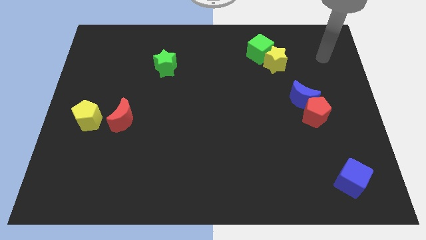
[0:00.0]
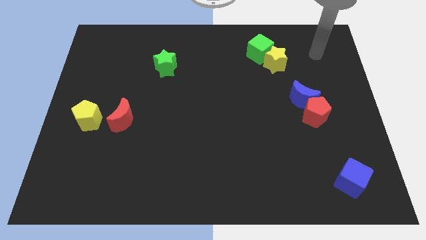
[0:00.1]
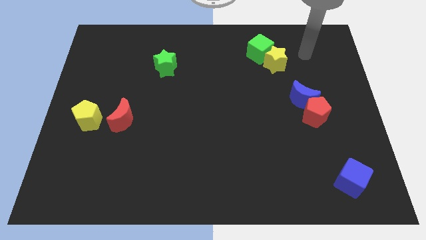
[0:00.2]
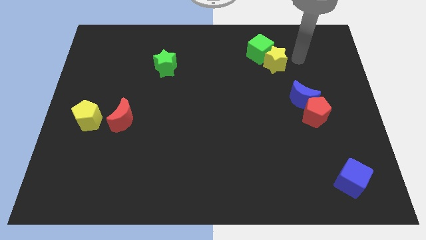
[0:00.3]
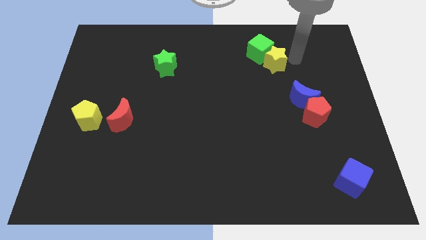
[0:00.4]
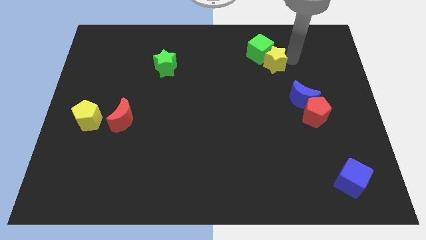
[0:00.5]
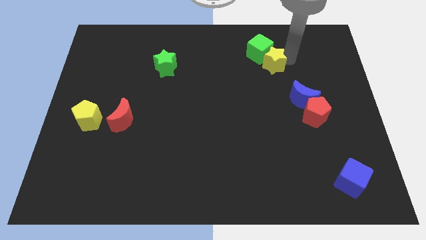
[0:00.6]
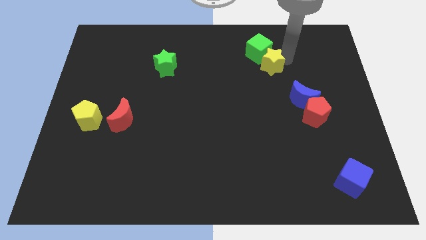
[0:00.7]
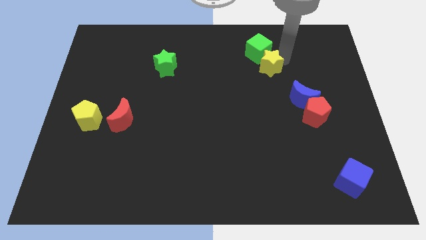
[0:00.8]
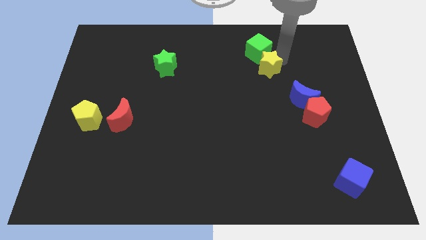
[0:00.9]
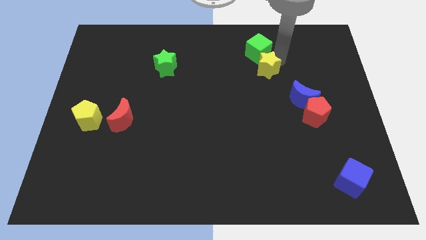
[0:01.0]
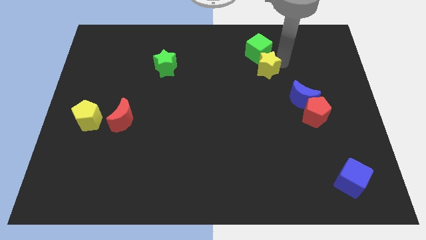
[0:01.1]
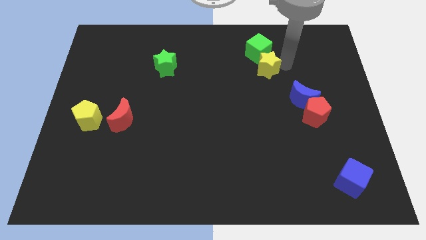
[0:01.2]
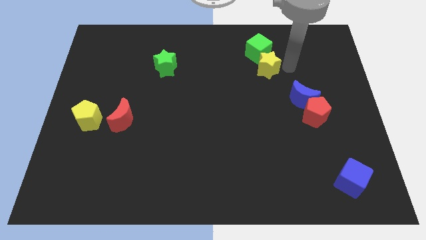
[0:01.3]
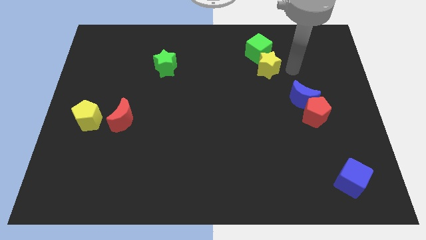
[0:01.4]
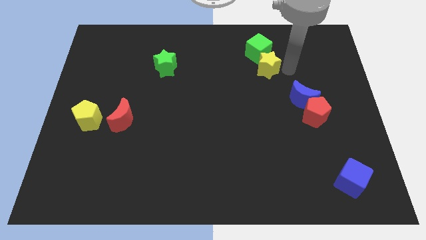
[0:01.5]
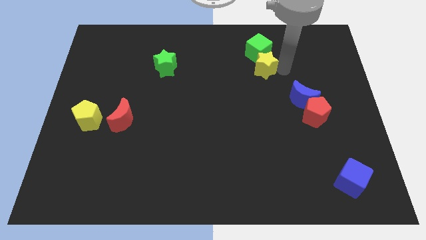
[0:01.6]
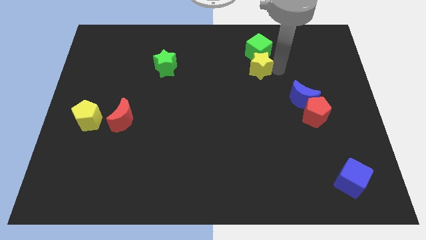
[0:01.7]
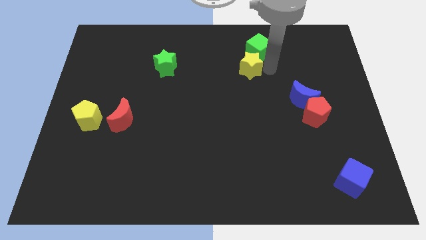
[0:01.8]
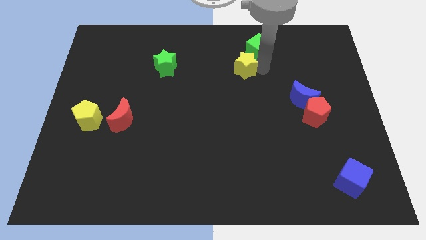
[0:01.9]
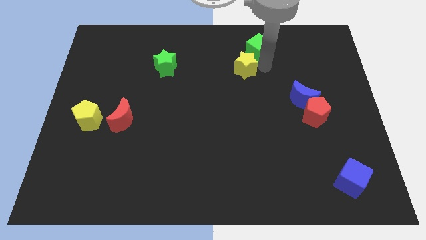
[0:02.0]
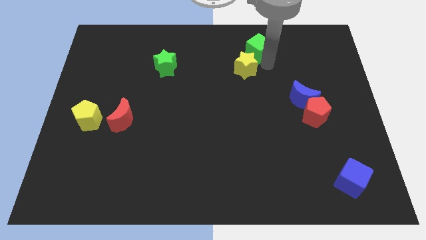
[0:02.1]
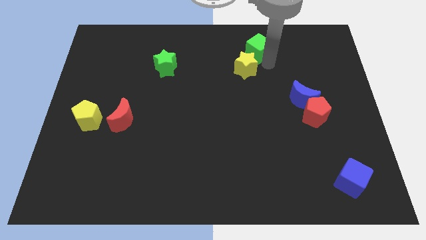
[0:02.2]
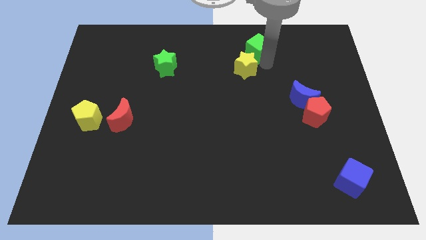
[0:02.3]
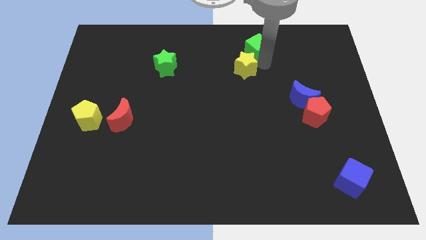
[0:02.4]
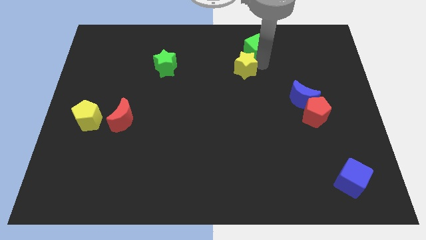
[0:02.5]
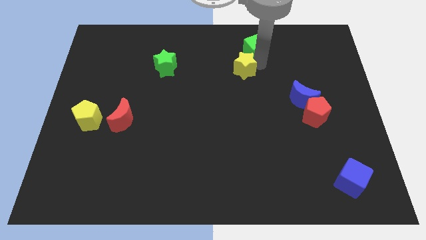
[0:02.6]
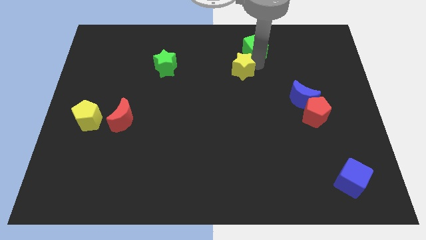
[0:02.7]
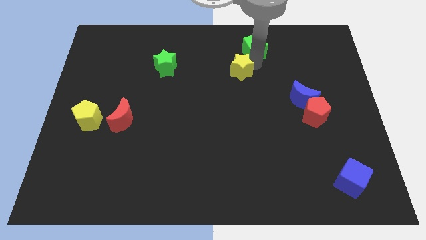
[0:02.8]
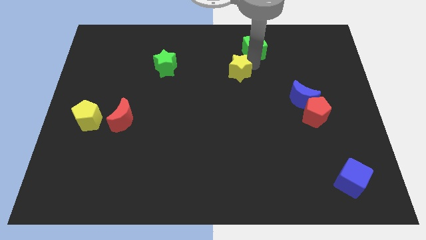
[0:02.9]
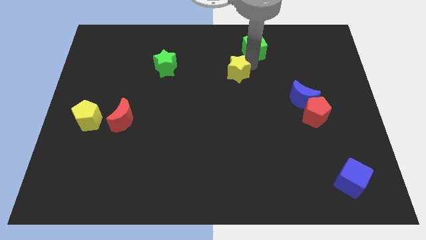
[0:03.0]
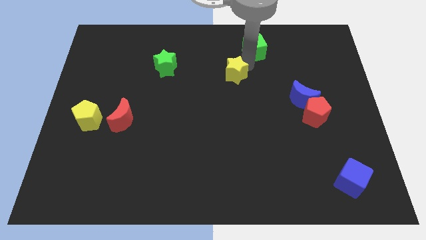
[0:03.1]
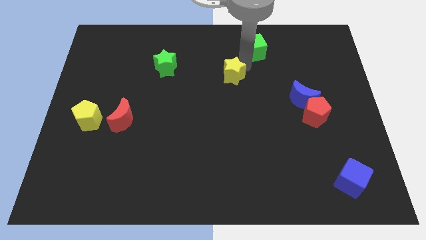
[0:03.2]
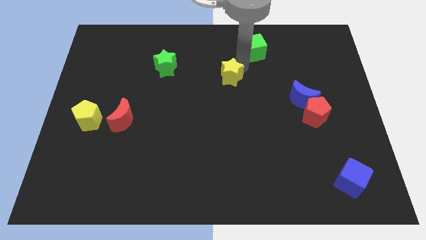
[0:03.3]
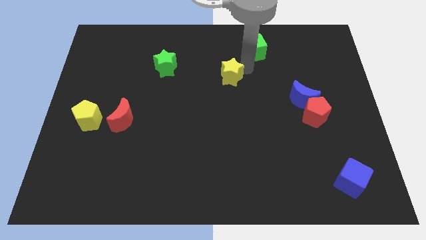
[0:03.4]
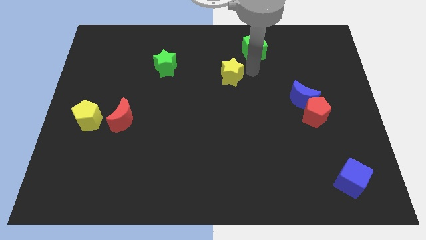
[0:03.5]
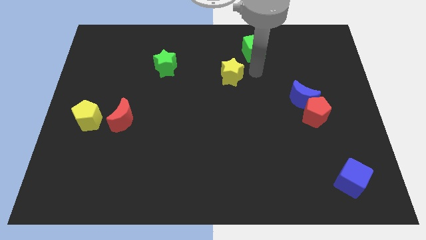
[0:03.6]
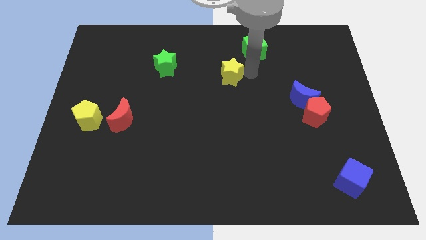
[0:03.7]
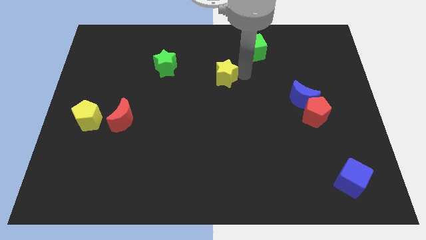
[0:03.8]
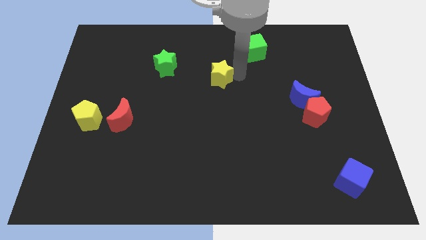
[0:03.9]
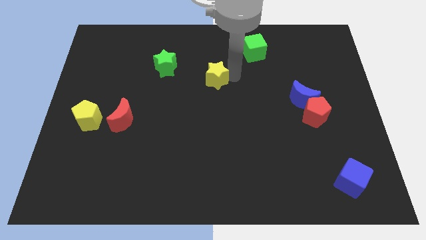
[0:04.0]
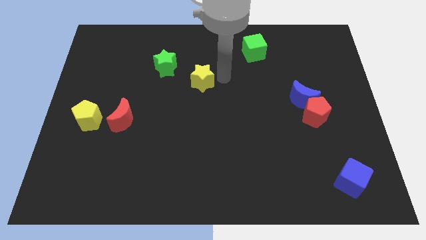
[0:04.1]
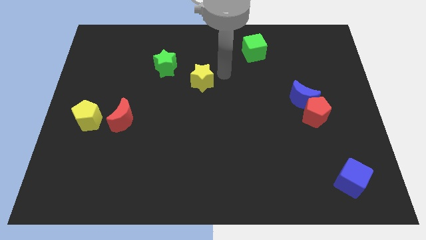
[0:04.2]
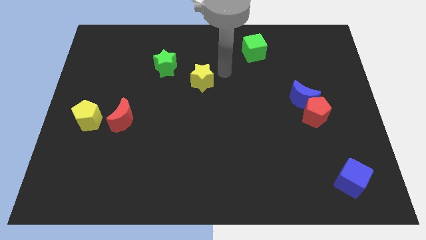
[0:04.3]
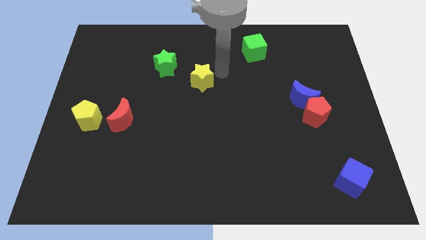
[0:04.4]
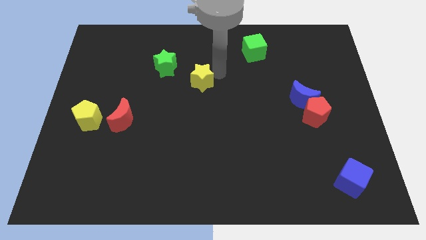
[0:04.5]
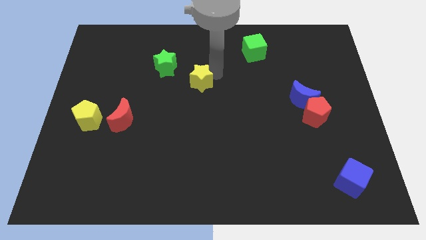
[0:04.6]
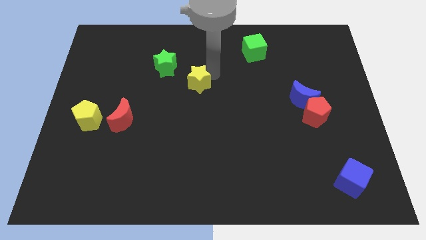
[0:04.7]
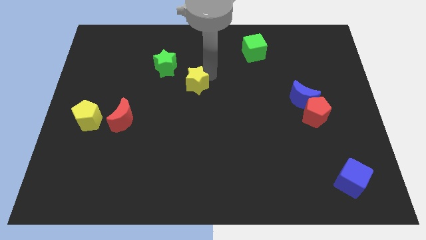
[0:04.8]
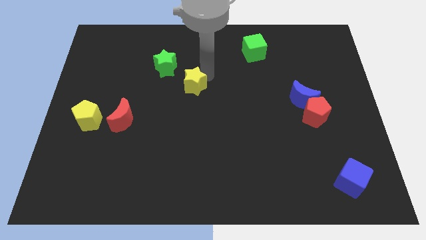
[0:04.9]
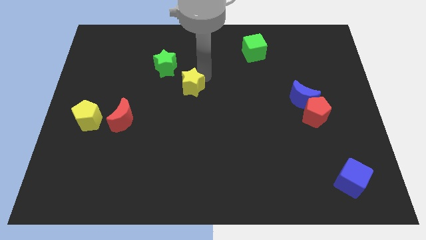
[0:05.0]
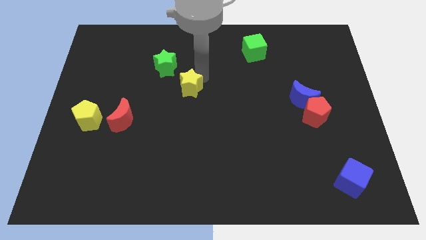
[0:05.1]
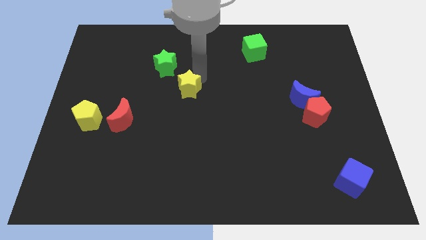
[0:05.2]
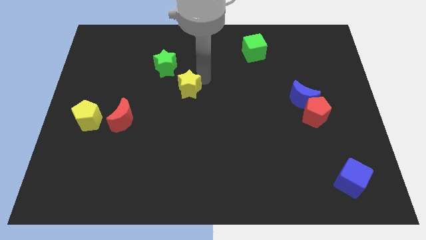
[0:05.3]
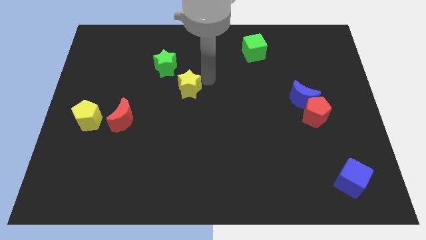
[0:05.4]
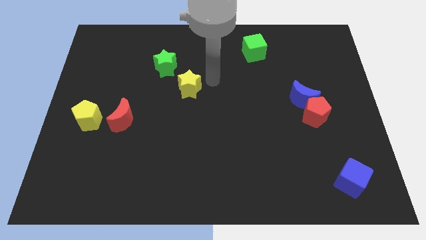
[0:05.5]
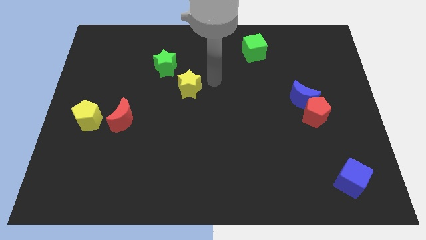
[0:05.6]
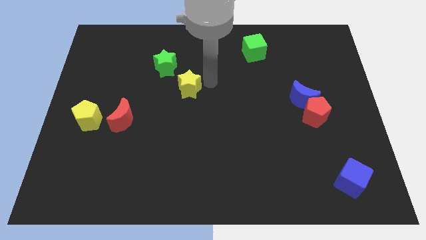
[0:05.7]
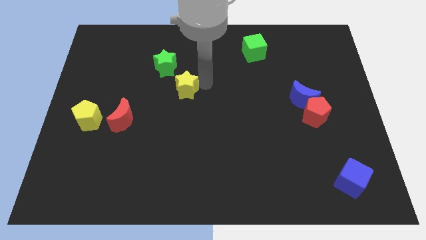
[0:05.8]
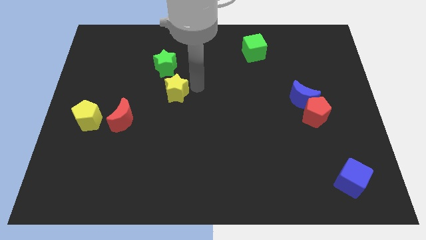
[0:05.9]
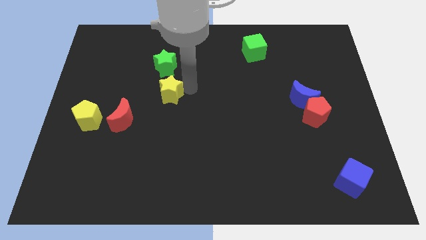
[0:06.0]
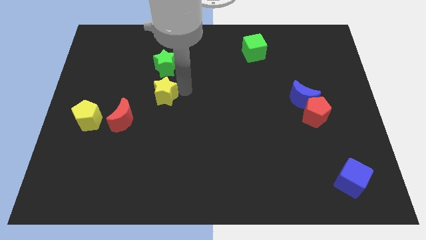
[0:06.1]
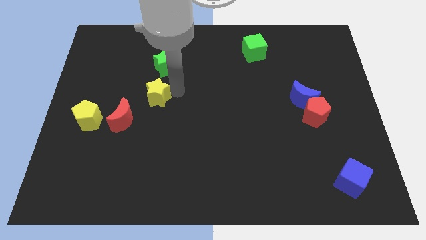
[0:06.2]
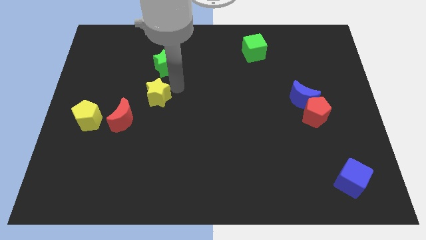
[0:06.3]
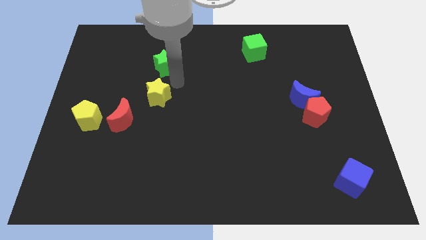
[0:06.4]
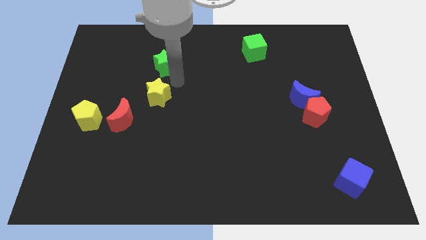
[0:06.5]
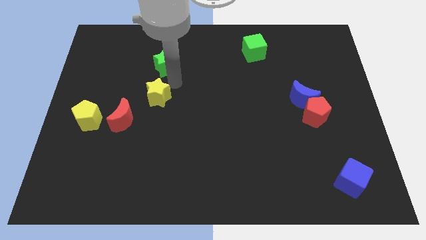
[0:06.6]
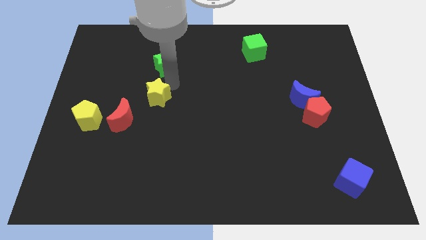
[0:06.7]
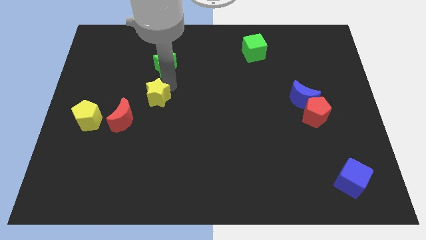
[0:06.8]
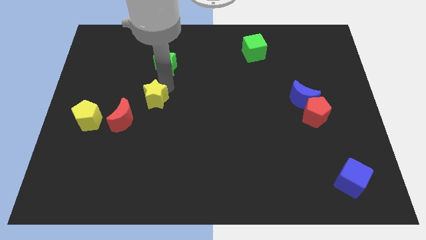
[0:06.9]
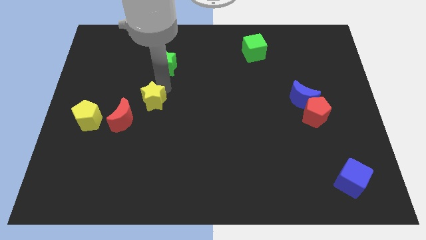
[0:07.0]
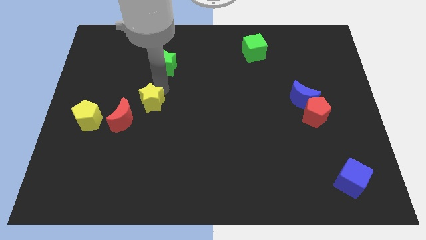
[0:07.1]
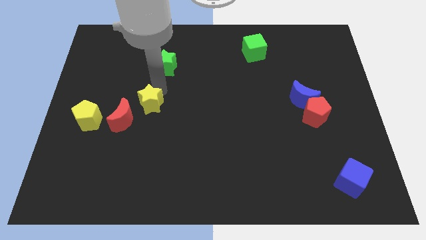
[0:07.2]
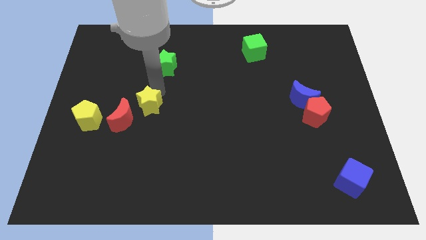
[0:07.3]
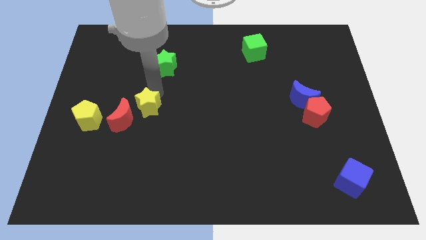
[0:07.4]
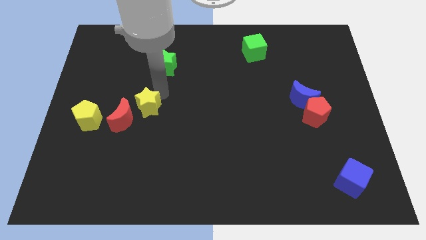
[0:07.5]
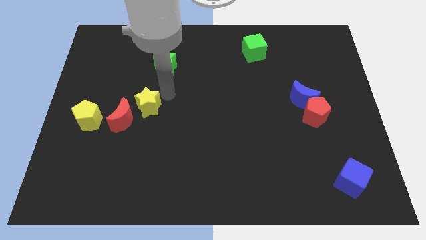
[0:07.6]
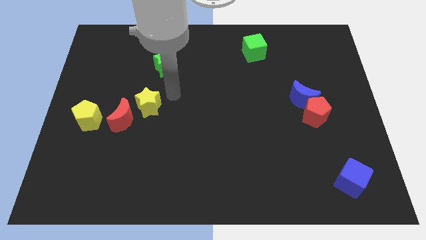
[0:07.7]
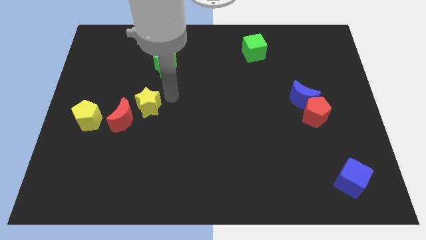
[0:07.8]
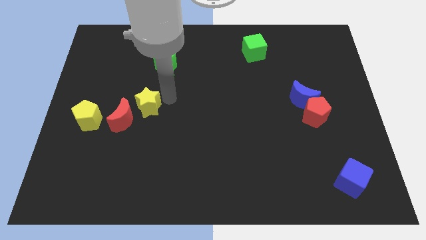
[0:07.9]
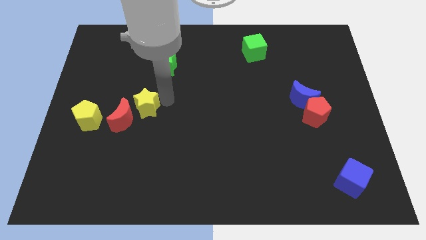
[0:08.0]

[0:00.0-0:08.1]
push the yellow star to the red moon
